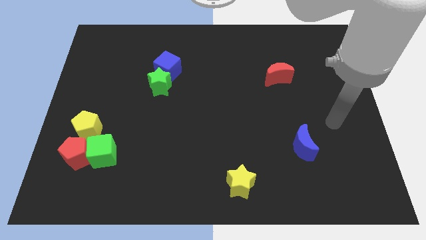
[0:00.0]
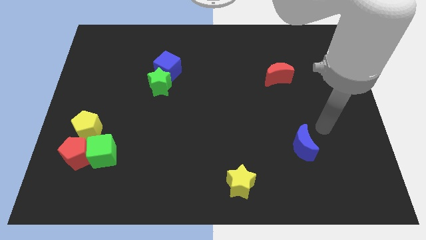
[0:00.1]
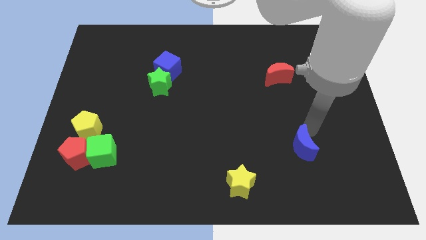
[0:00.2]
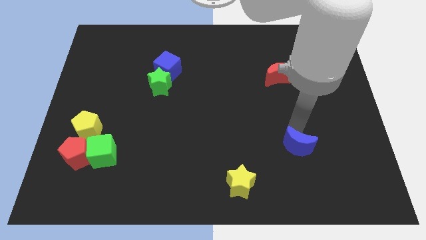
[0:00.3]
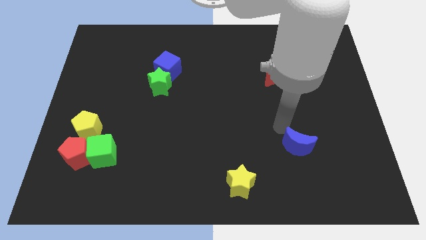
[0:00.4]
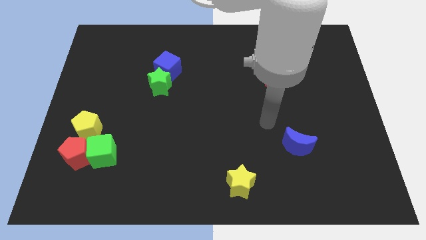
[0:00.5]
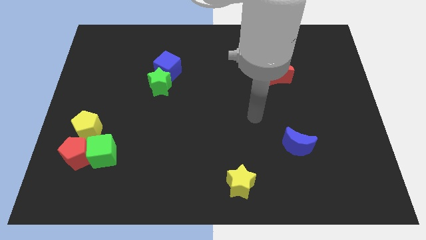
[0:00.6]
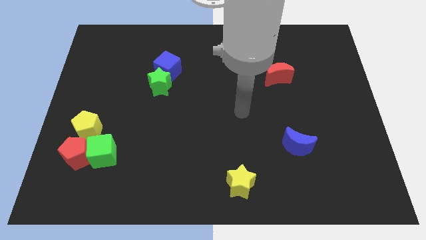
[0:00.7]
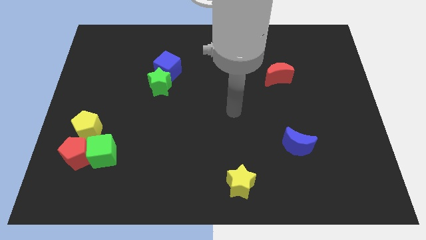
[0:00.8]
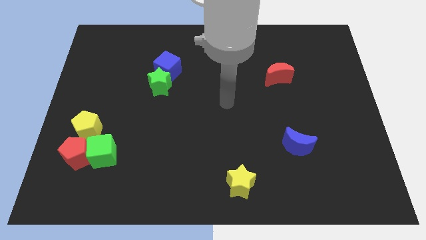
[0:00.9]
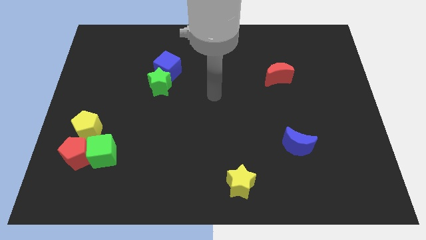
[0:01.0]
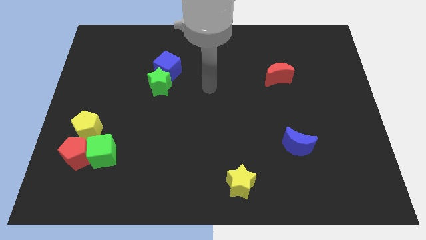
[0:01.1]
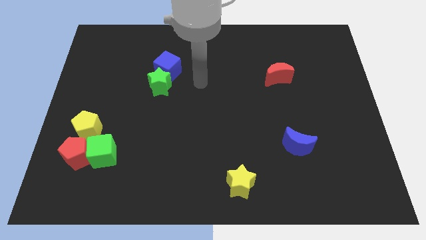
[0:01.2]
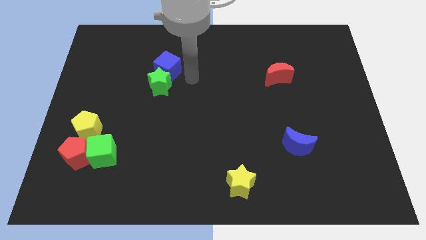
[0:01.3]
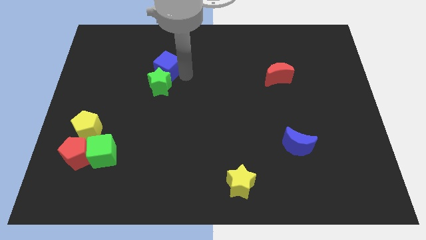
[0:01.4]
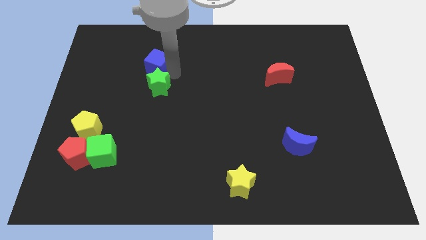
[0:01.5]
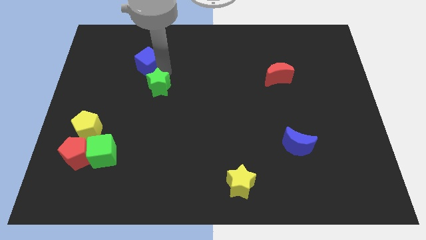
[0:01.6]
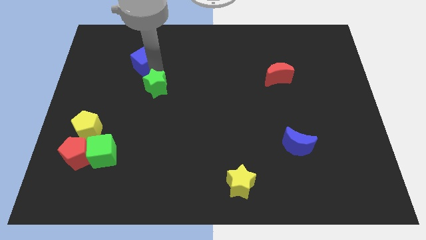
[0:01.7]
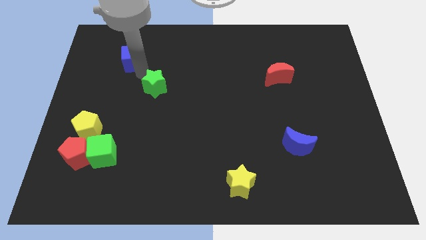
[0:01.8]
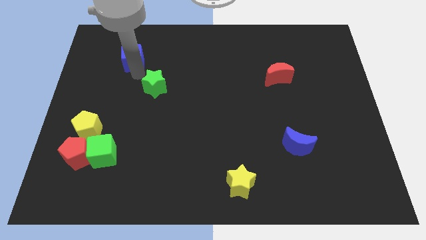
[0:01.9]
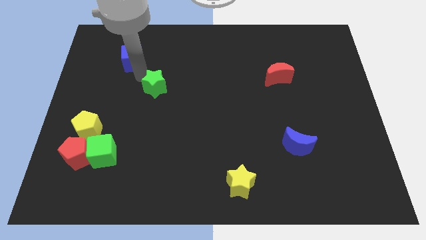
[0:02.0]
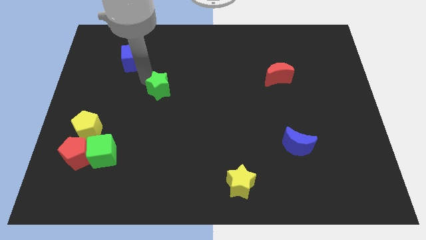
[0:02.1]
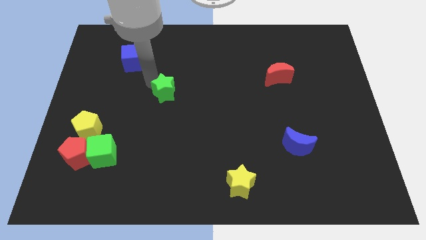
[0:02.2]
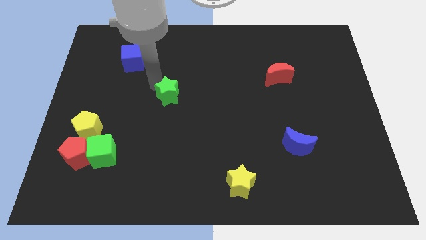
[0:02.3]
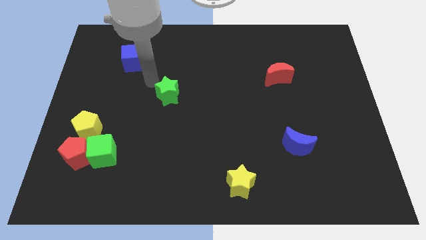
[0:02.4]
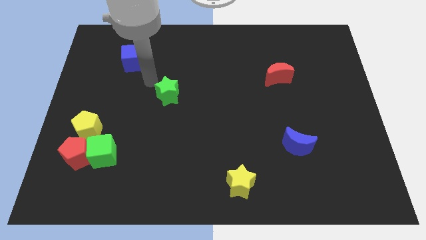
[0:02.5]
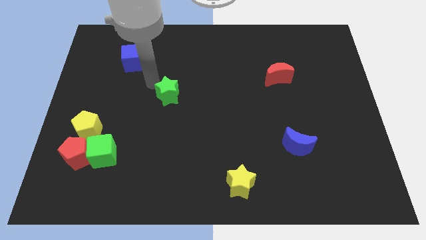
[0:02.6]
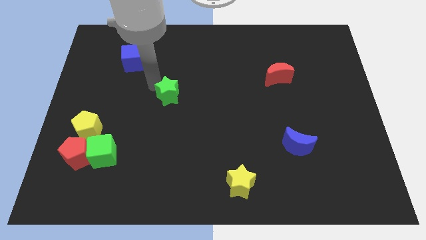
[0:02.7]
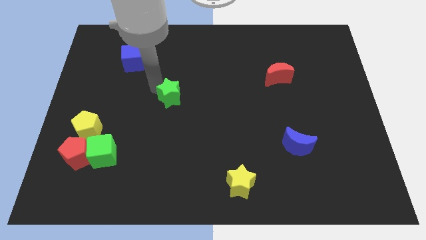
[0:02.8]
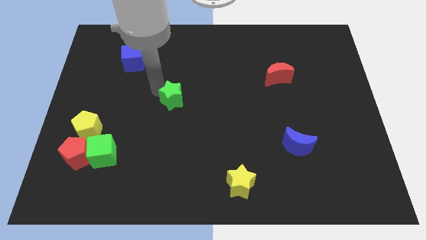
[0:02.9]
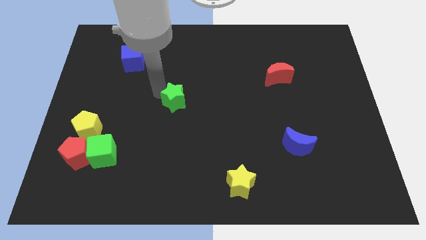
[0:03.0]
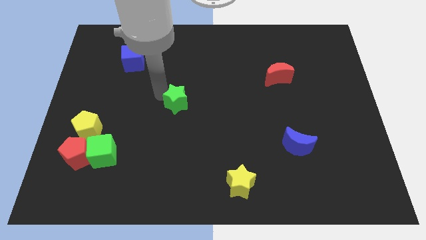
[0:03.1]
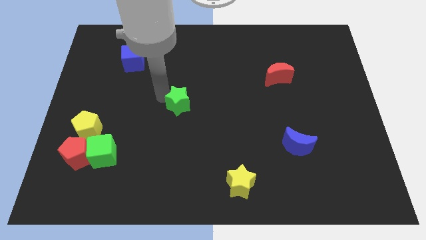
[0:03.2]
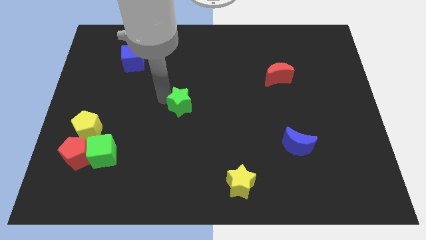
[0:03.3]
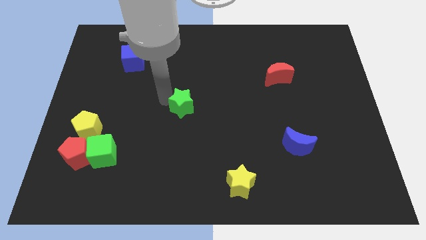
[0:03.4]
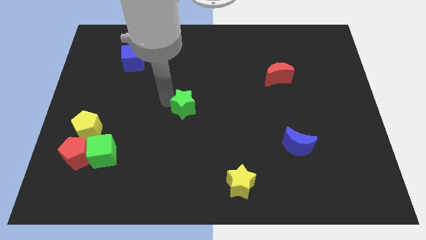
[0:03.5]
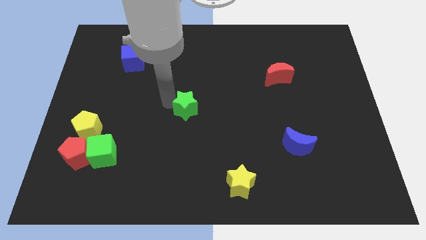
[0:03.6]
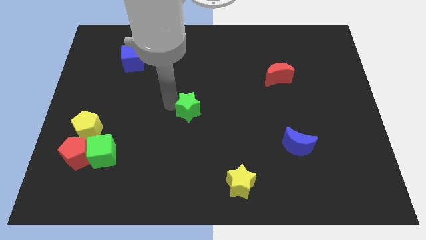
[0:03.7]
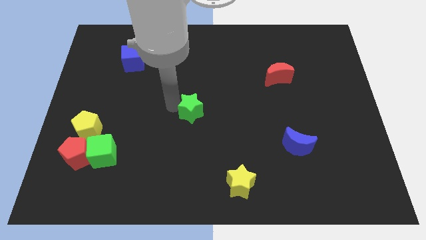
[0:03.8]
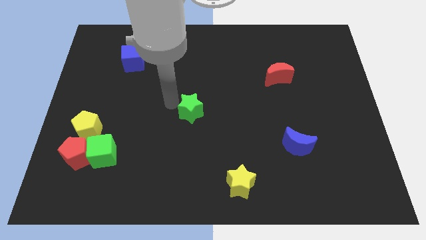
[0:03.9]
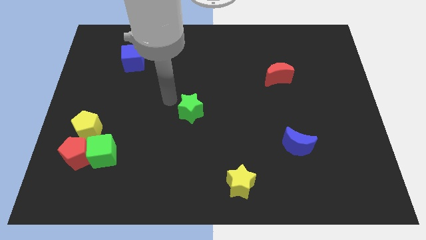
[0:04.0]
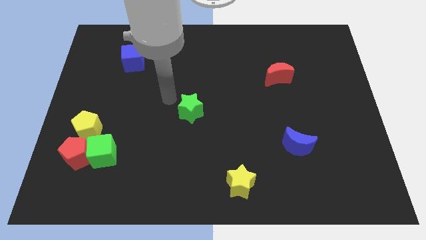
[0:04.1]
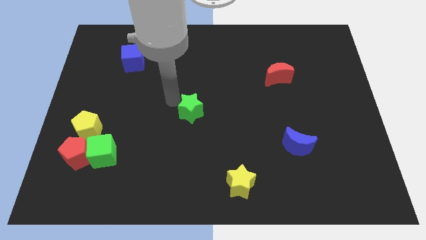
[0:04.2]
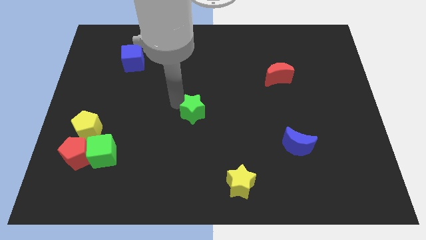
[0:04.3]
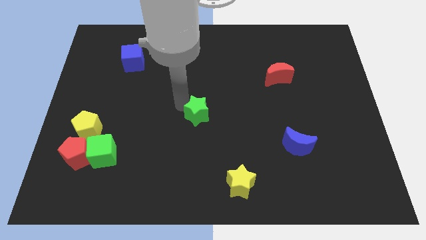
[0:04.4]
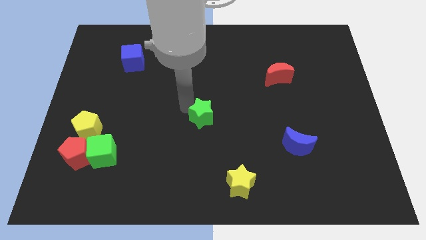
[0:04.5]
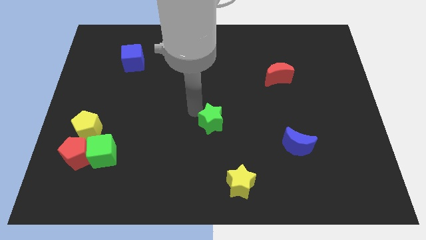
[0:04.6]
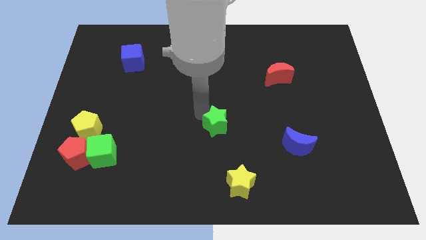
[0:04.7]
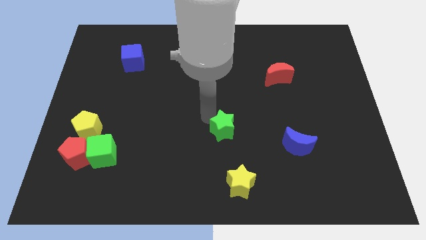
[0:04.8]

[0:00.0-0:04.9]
push the green star diagonally down and to the right

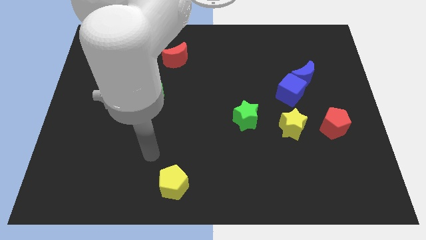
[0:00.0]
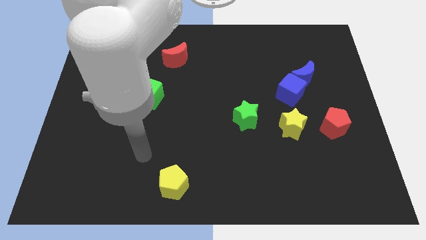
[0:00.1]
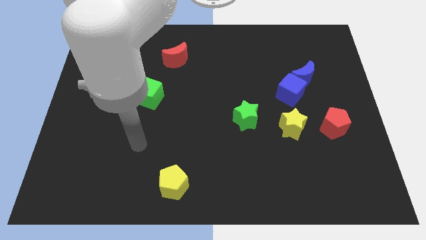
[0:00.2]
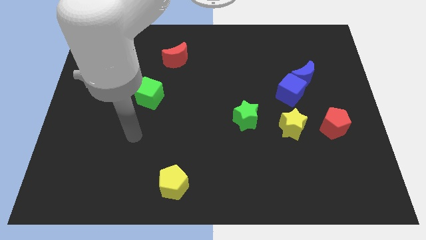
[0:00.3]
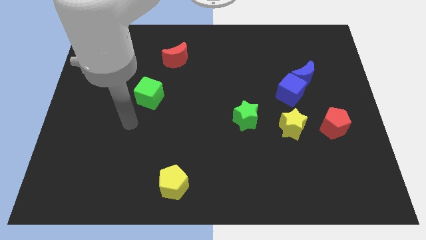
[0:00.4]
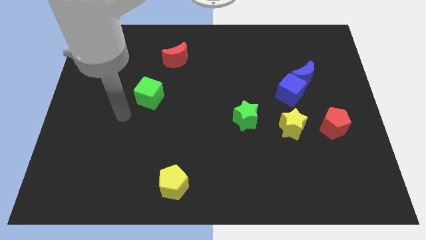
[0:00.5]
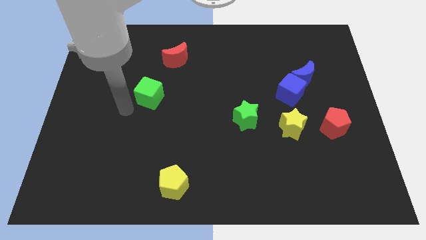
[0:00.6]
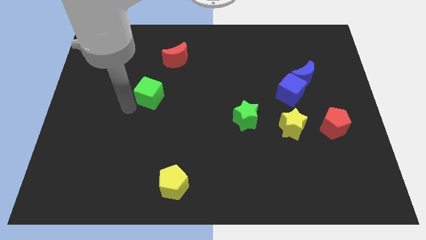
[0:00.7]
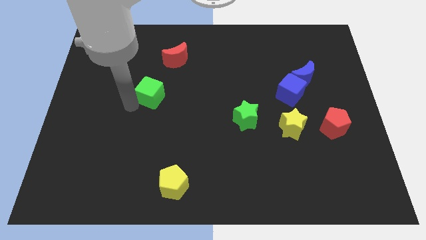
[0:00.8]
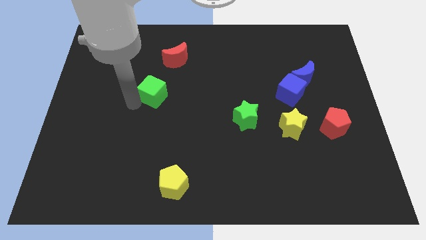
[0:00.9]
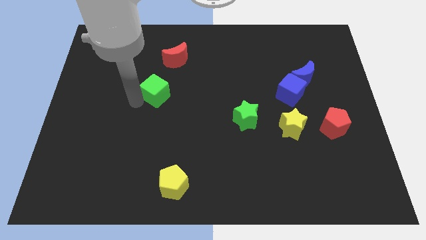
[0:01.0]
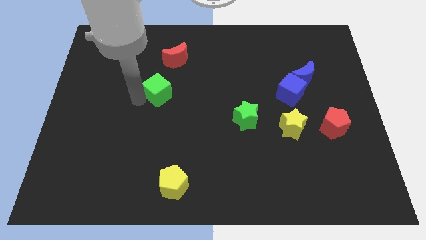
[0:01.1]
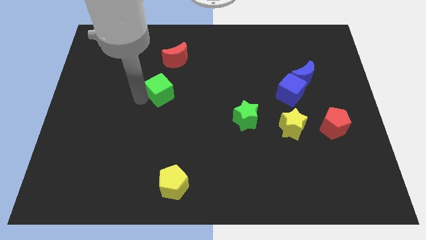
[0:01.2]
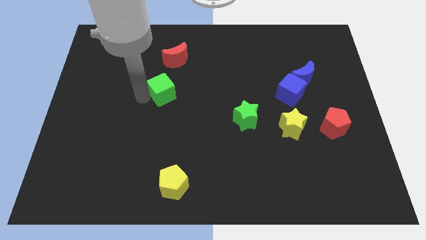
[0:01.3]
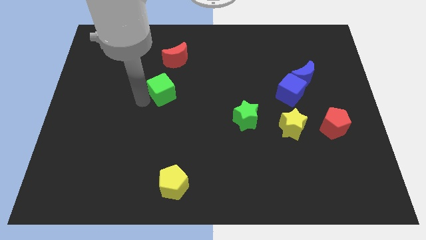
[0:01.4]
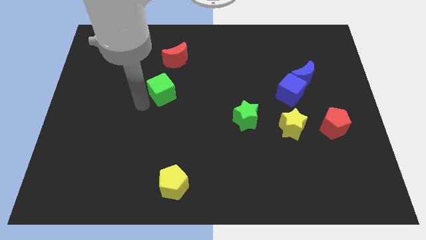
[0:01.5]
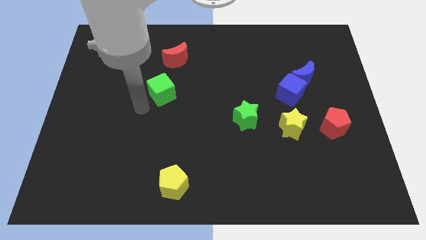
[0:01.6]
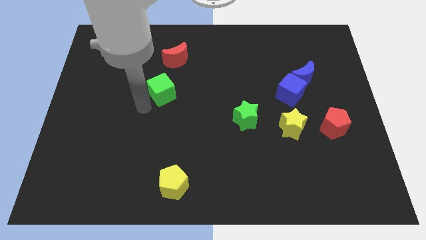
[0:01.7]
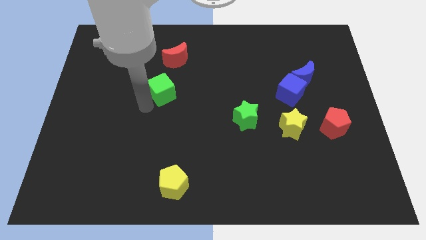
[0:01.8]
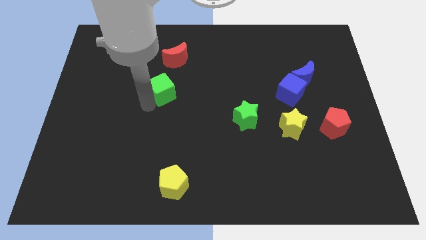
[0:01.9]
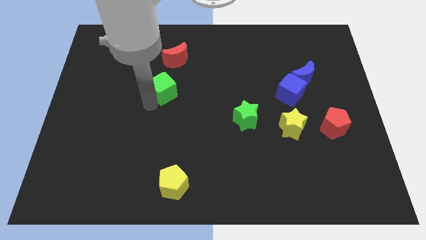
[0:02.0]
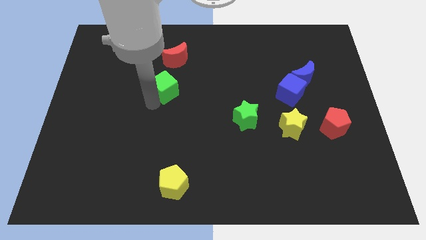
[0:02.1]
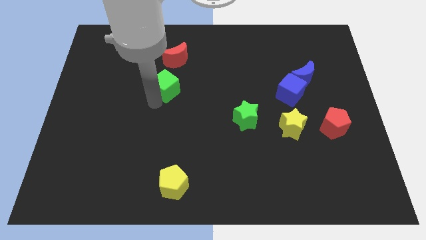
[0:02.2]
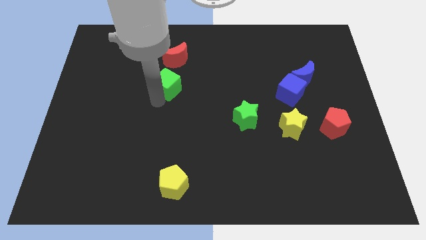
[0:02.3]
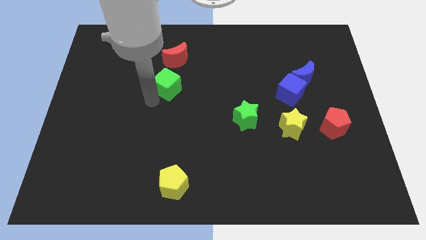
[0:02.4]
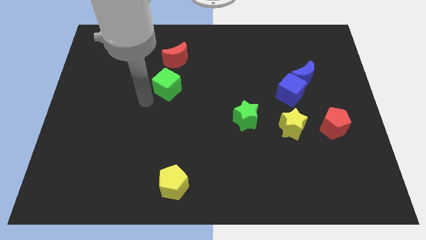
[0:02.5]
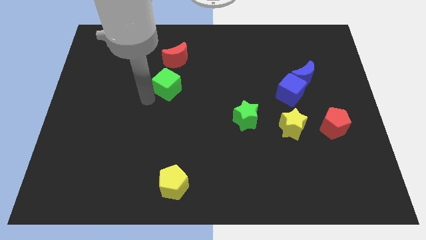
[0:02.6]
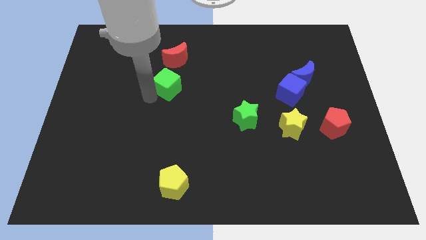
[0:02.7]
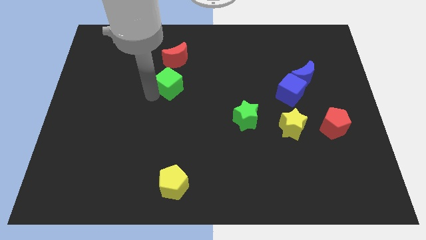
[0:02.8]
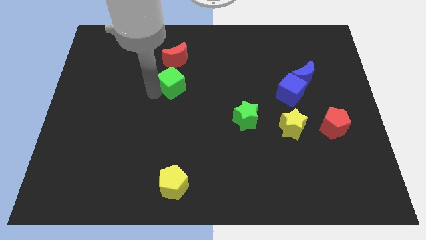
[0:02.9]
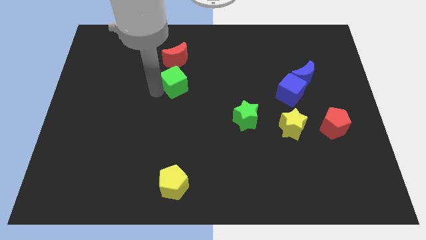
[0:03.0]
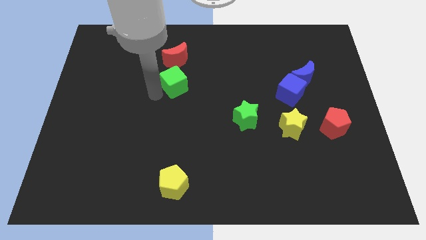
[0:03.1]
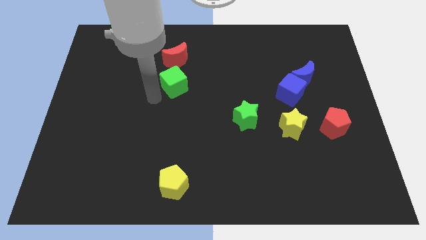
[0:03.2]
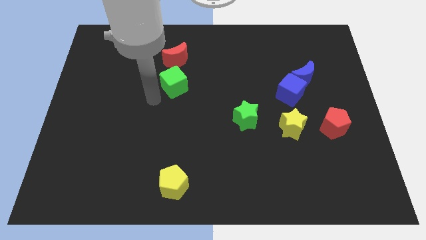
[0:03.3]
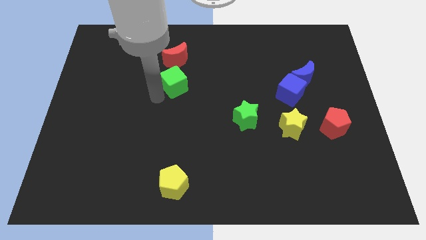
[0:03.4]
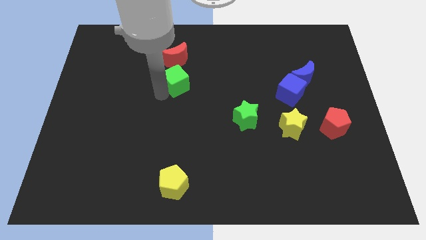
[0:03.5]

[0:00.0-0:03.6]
slightly move the green cube upwards and right diagonally
